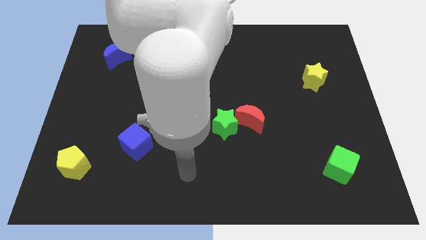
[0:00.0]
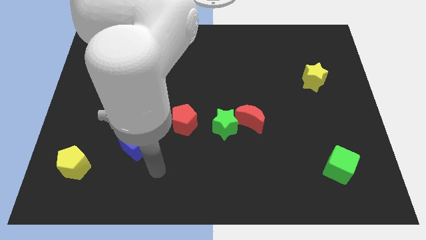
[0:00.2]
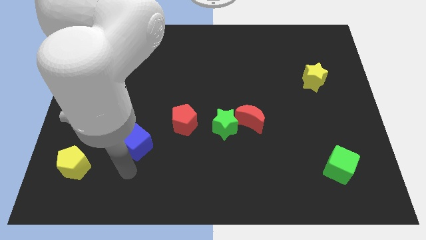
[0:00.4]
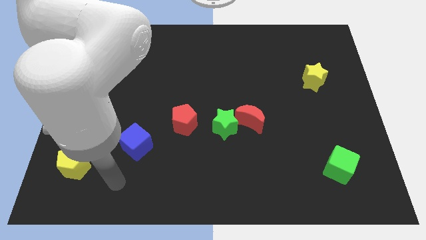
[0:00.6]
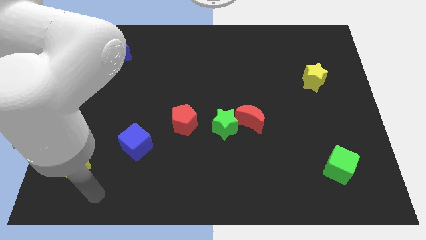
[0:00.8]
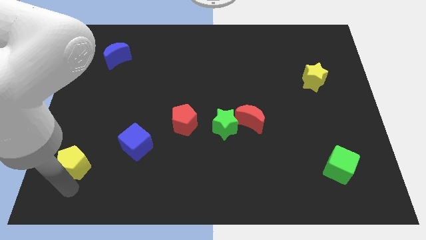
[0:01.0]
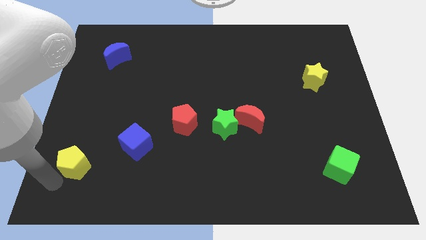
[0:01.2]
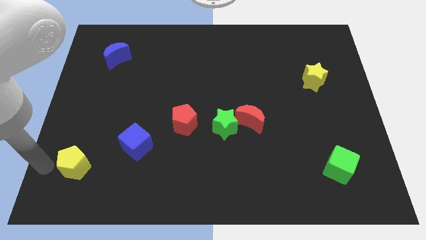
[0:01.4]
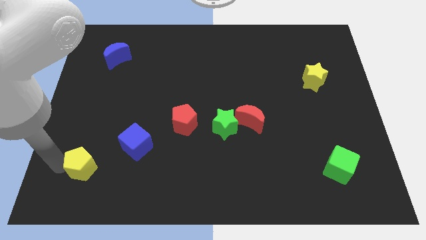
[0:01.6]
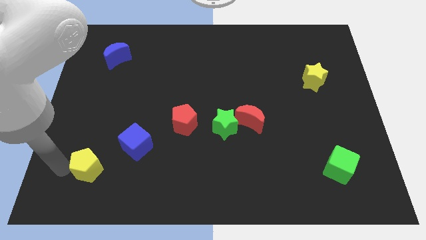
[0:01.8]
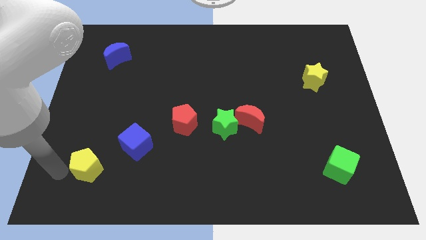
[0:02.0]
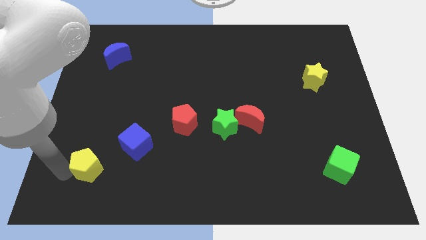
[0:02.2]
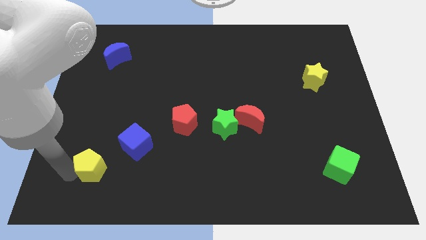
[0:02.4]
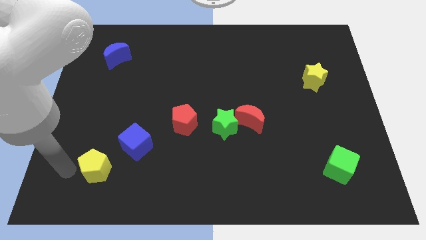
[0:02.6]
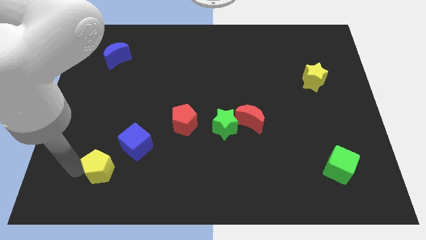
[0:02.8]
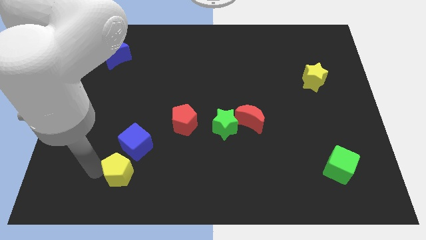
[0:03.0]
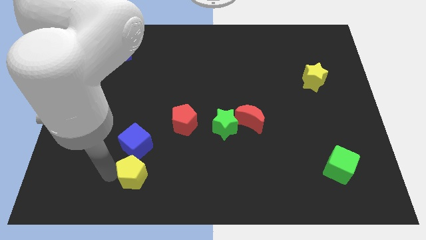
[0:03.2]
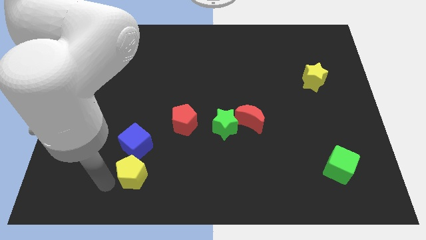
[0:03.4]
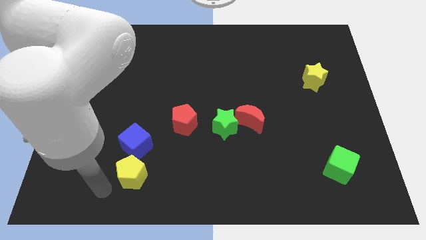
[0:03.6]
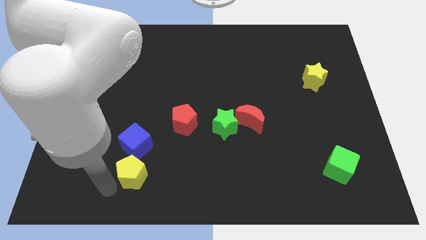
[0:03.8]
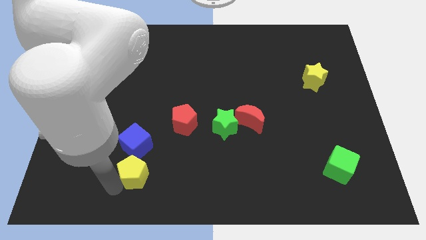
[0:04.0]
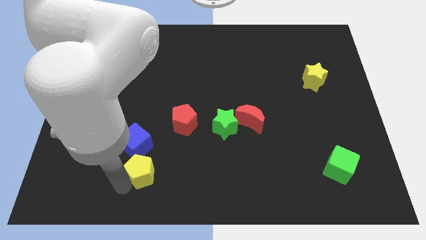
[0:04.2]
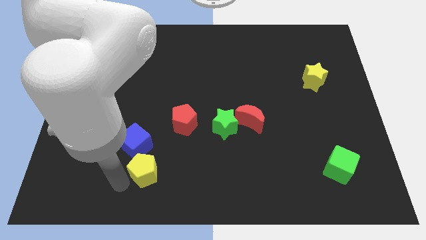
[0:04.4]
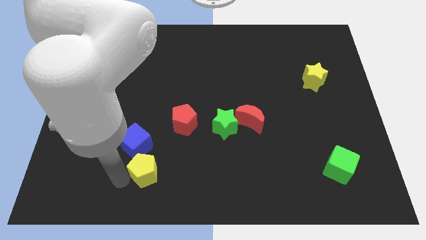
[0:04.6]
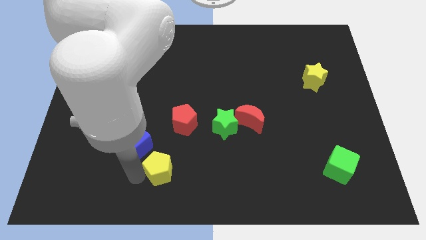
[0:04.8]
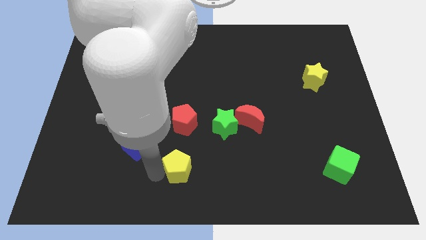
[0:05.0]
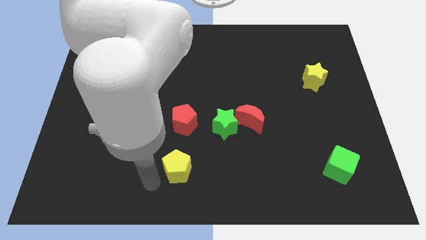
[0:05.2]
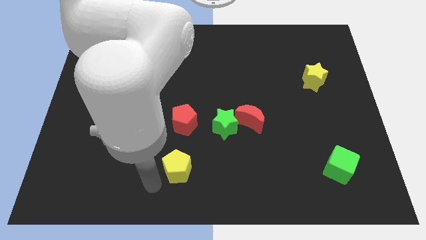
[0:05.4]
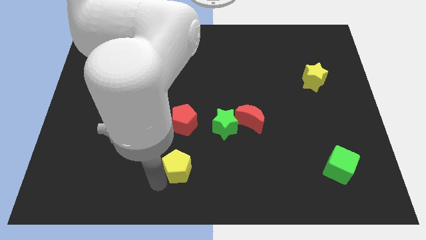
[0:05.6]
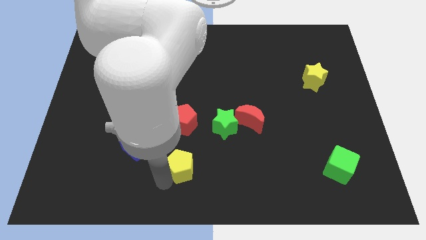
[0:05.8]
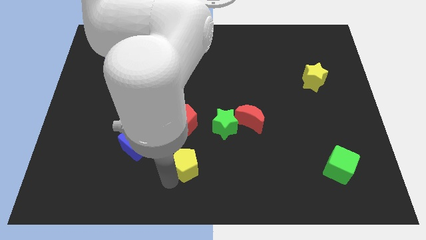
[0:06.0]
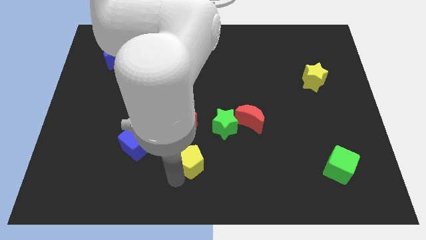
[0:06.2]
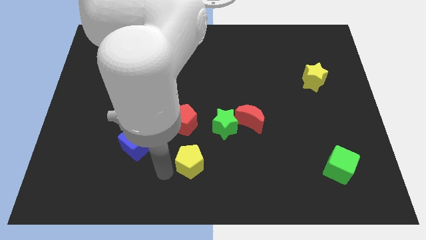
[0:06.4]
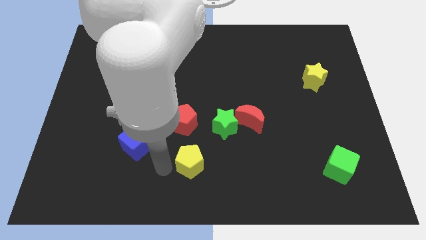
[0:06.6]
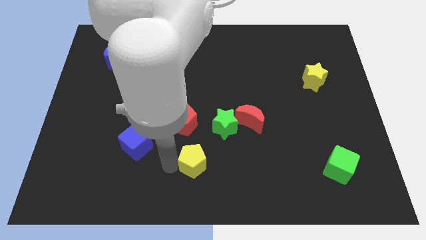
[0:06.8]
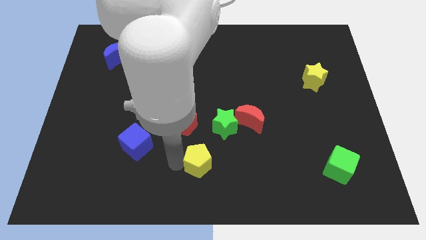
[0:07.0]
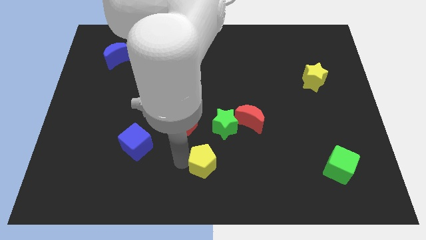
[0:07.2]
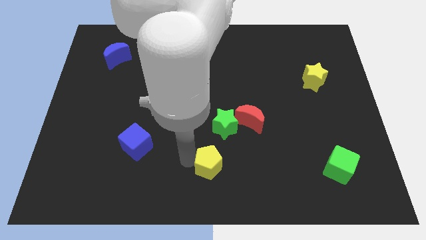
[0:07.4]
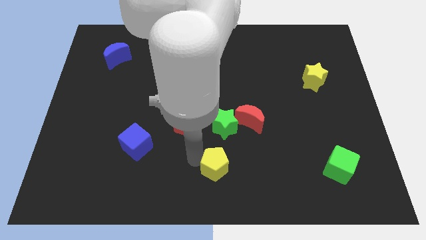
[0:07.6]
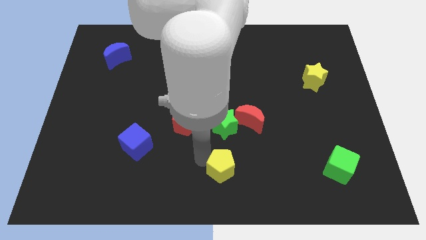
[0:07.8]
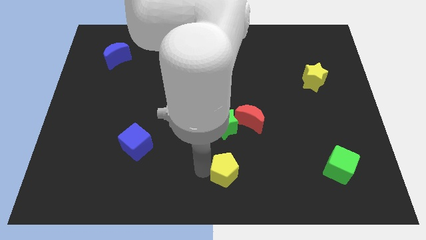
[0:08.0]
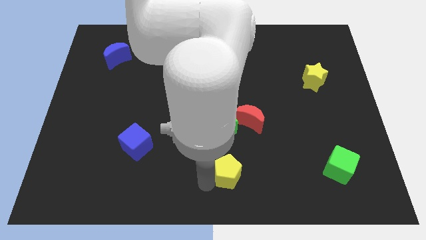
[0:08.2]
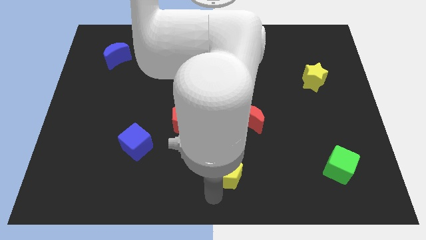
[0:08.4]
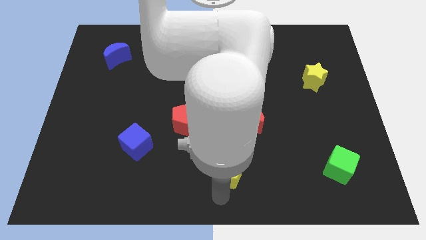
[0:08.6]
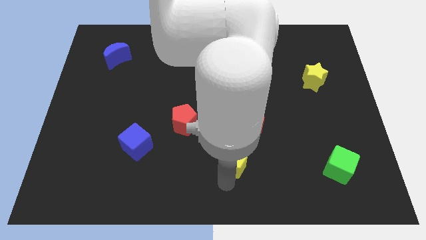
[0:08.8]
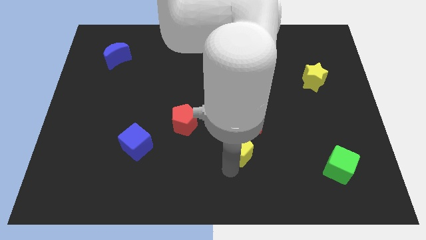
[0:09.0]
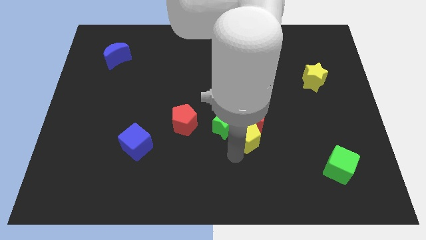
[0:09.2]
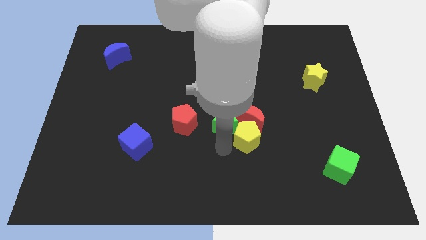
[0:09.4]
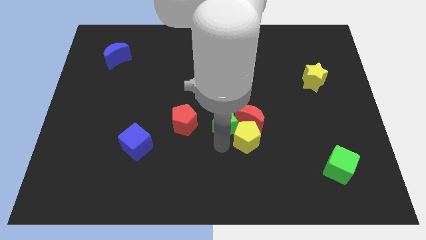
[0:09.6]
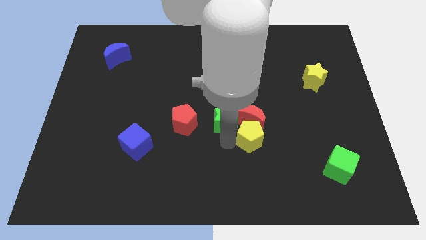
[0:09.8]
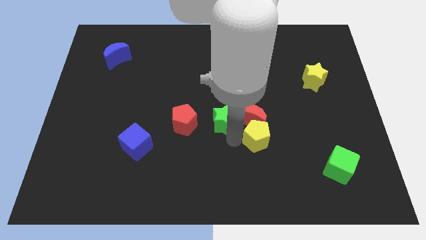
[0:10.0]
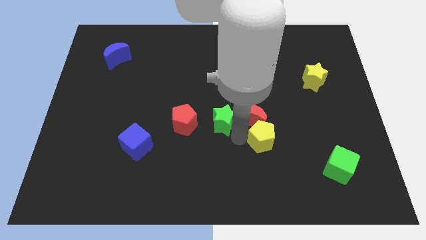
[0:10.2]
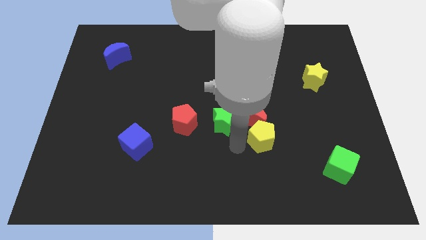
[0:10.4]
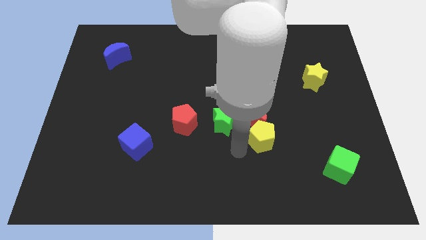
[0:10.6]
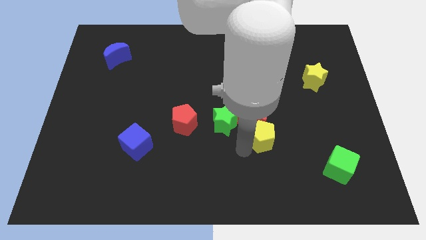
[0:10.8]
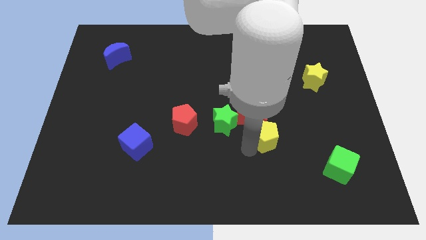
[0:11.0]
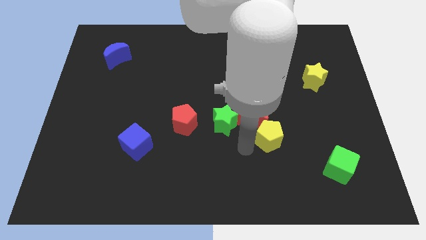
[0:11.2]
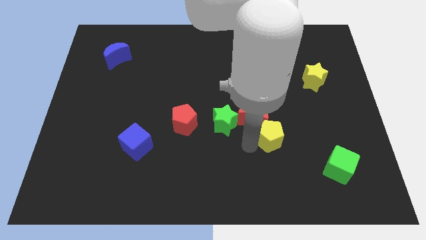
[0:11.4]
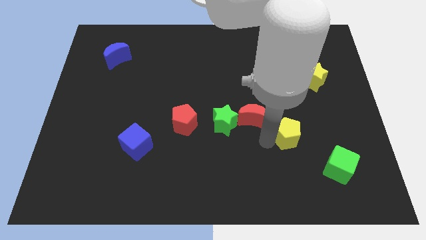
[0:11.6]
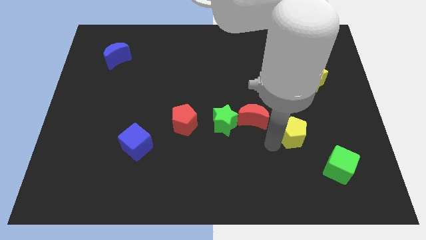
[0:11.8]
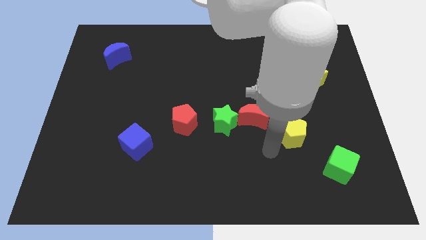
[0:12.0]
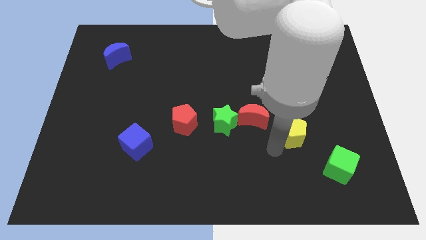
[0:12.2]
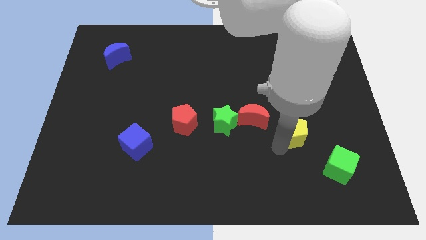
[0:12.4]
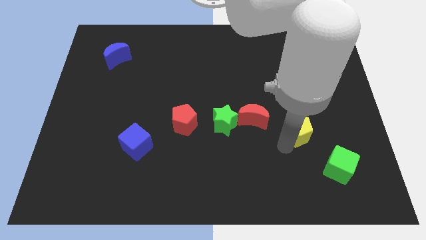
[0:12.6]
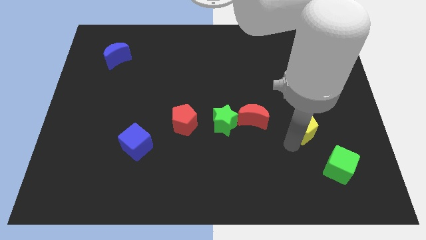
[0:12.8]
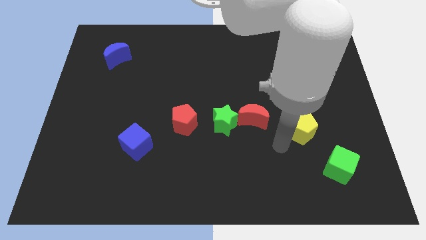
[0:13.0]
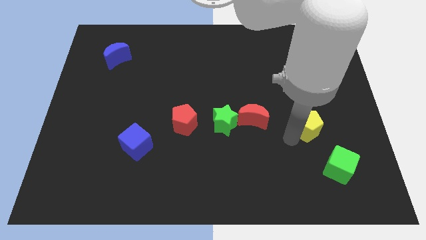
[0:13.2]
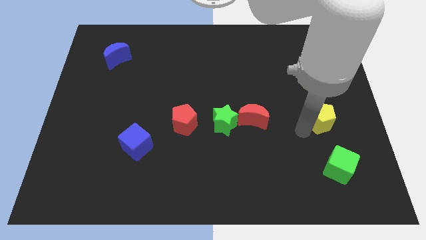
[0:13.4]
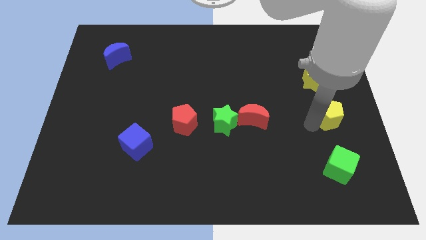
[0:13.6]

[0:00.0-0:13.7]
move the yellow pentagon to the center right

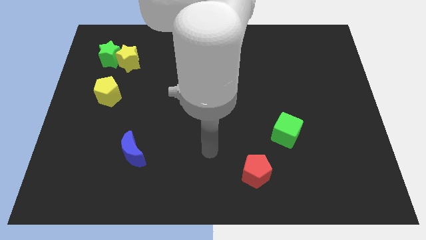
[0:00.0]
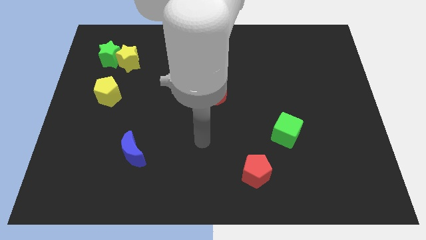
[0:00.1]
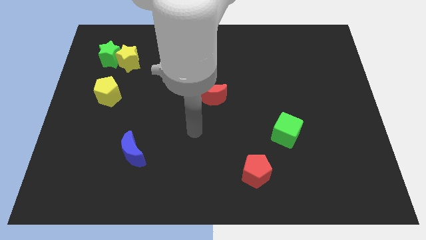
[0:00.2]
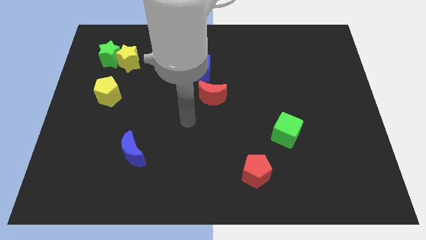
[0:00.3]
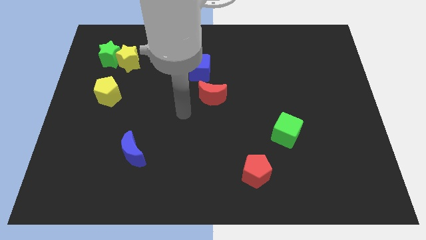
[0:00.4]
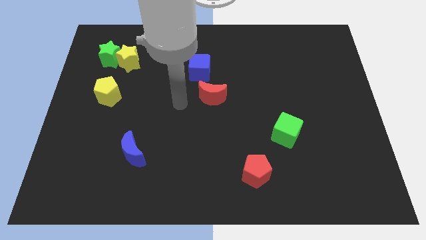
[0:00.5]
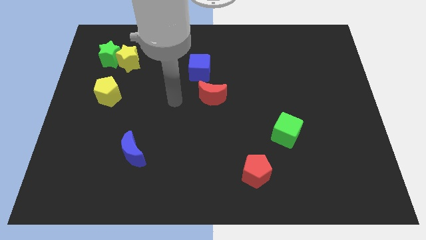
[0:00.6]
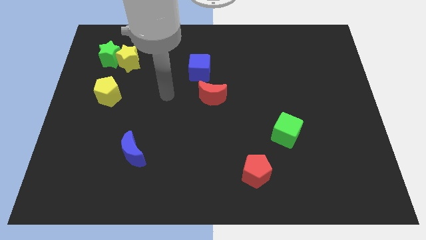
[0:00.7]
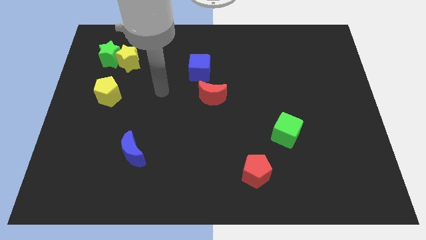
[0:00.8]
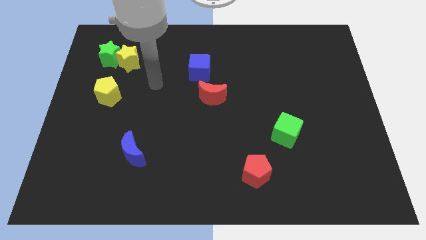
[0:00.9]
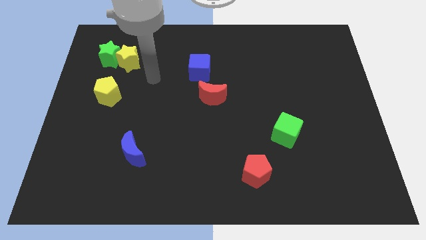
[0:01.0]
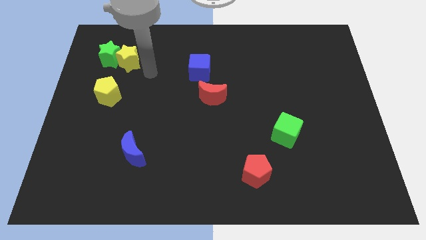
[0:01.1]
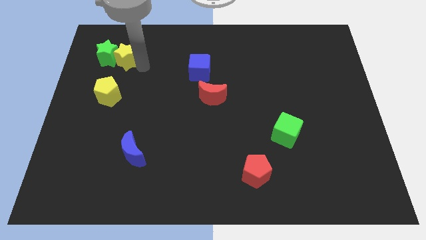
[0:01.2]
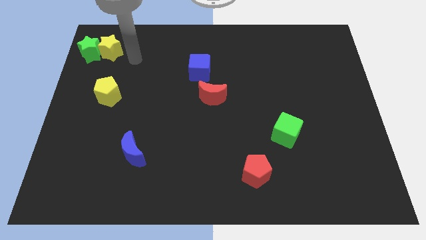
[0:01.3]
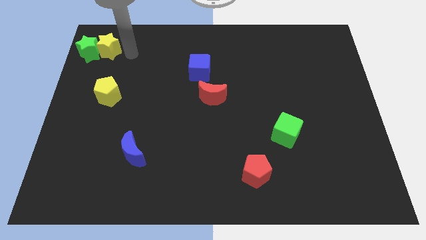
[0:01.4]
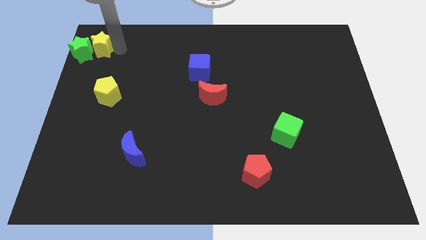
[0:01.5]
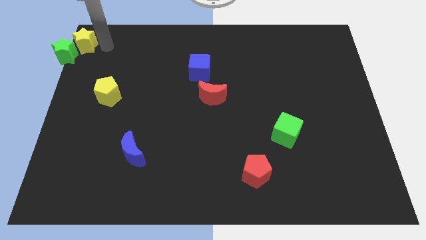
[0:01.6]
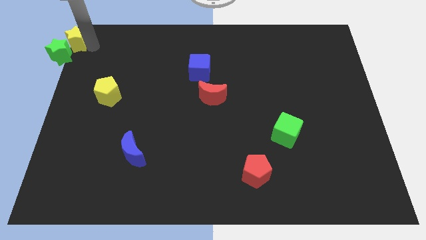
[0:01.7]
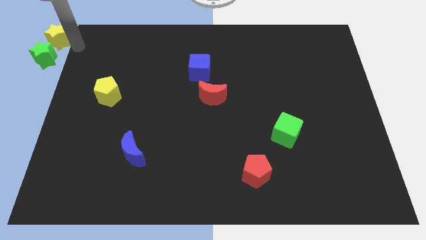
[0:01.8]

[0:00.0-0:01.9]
push the green star to the left side
